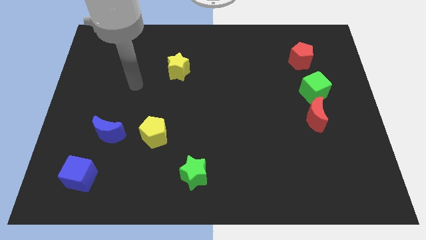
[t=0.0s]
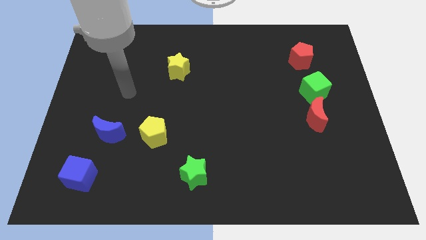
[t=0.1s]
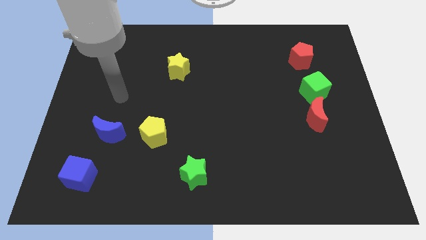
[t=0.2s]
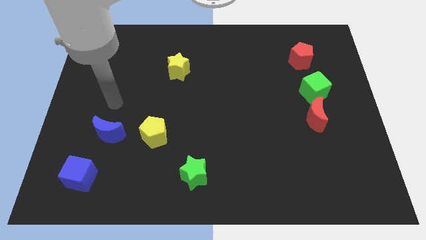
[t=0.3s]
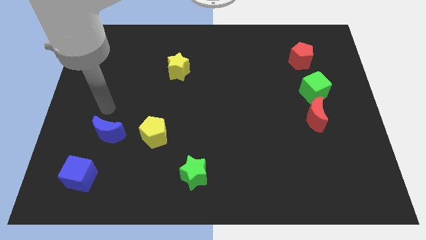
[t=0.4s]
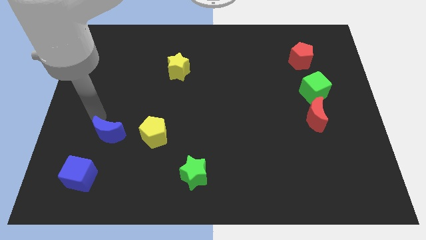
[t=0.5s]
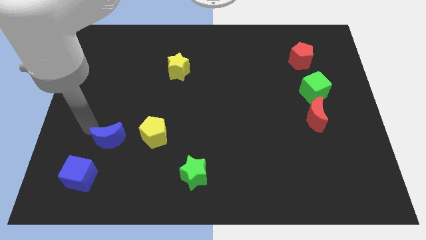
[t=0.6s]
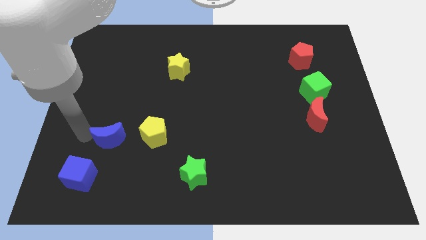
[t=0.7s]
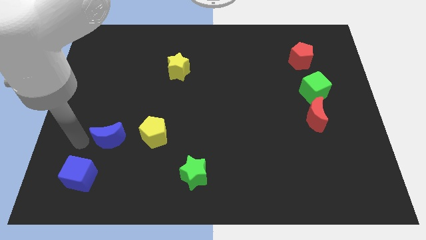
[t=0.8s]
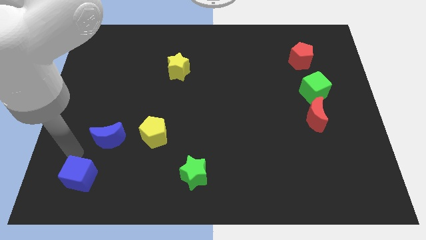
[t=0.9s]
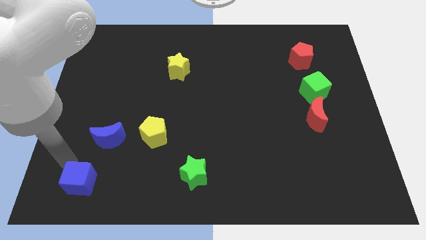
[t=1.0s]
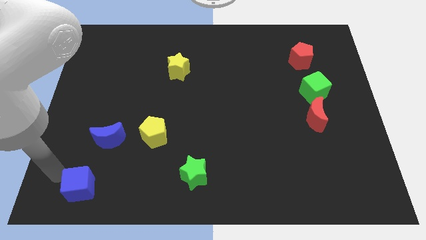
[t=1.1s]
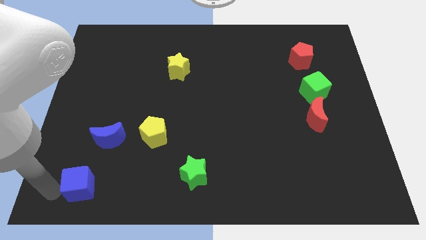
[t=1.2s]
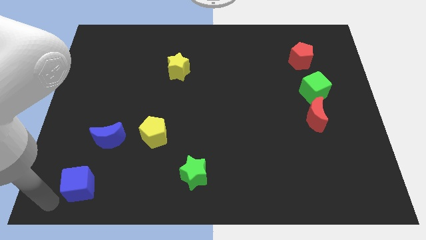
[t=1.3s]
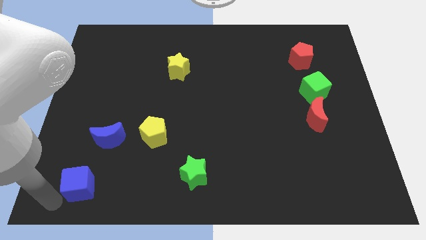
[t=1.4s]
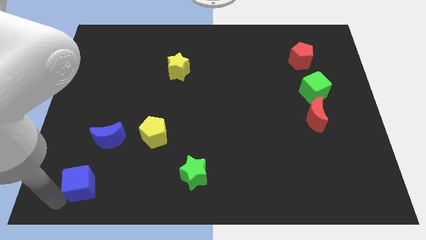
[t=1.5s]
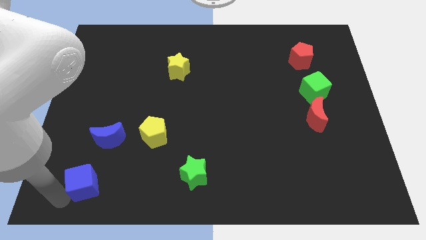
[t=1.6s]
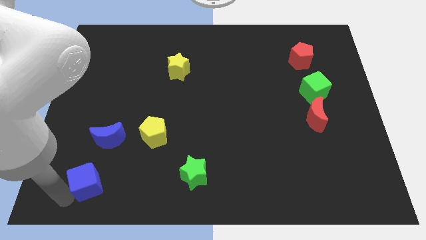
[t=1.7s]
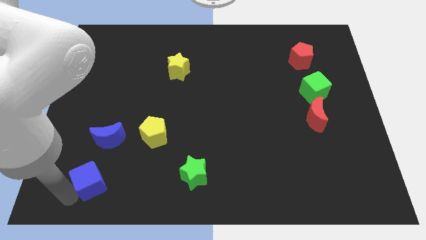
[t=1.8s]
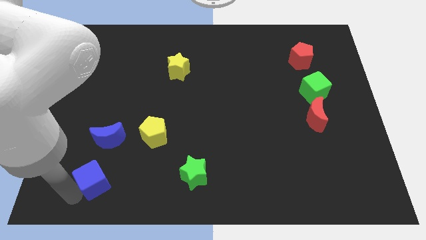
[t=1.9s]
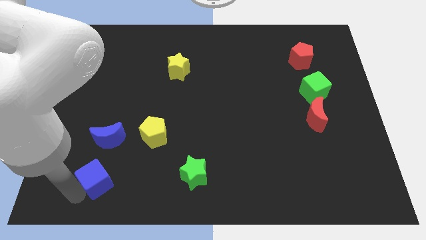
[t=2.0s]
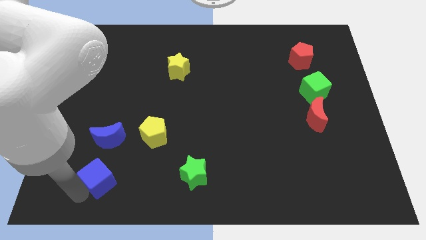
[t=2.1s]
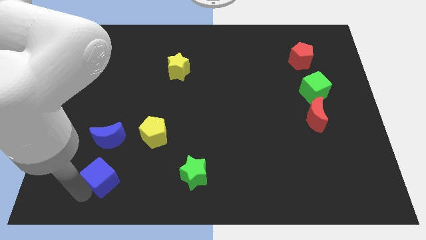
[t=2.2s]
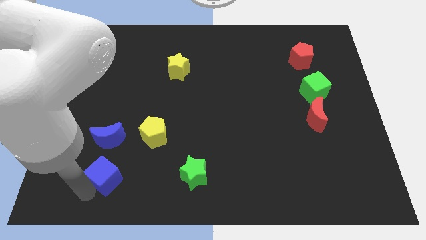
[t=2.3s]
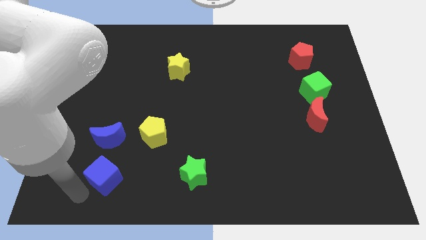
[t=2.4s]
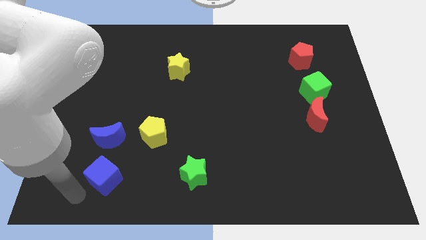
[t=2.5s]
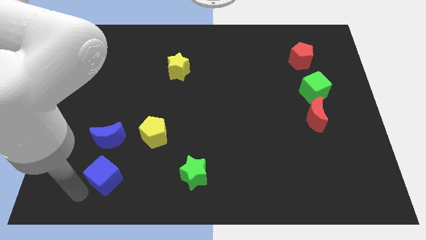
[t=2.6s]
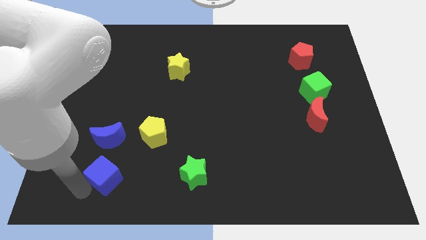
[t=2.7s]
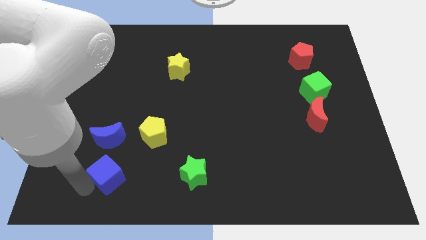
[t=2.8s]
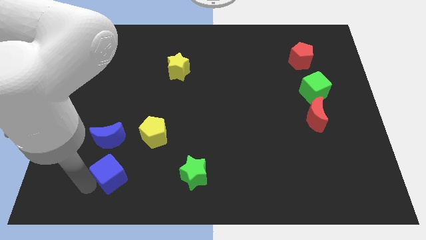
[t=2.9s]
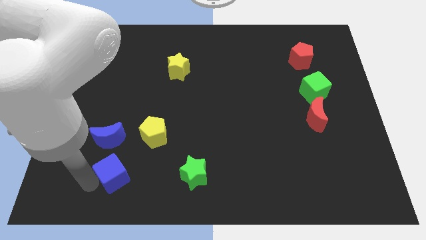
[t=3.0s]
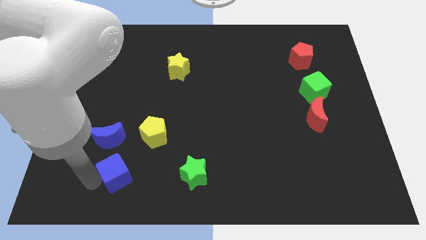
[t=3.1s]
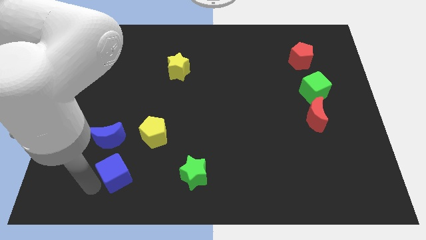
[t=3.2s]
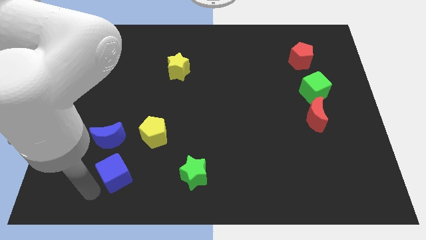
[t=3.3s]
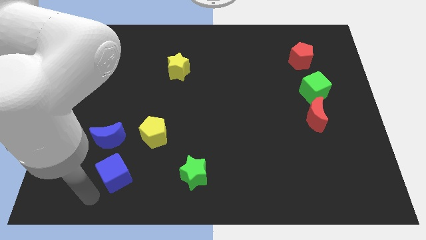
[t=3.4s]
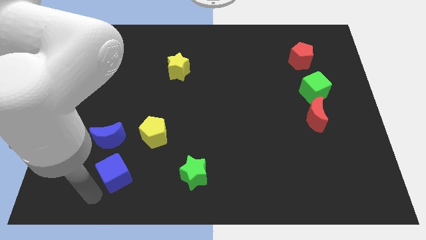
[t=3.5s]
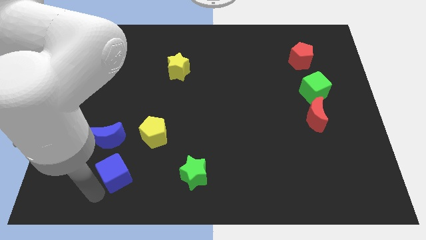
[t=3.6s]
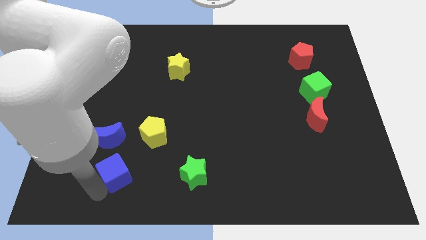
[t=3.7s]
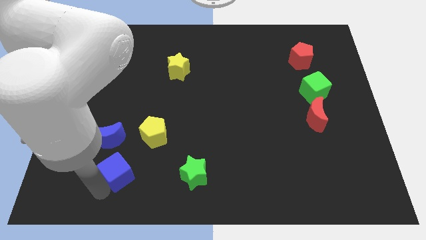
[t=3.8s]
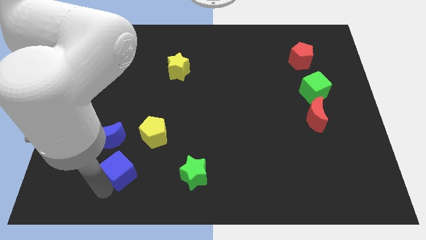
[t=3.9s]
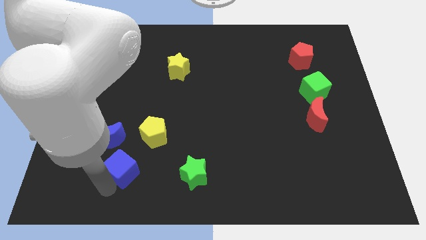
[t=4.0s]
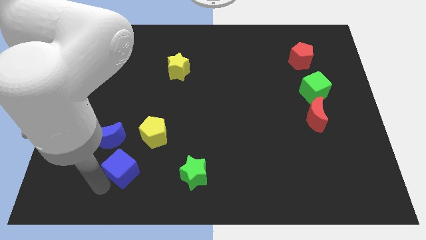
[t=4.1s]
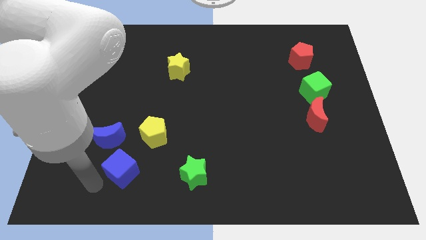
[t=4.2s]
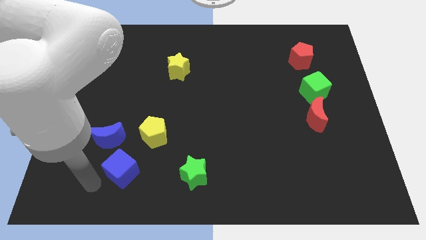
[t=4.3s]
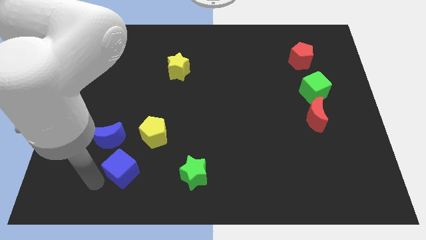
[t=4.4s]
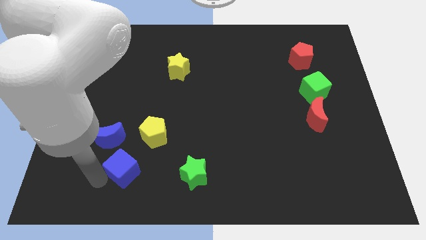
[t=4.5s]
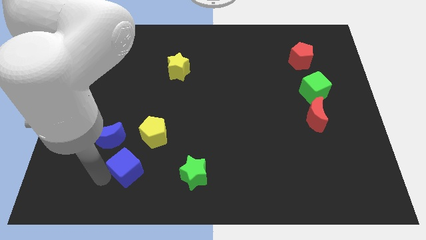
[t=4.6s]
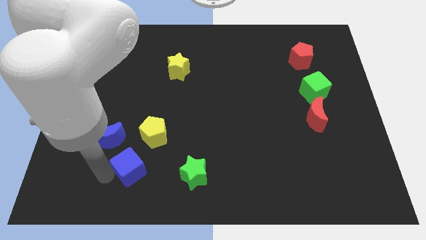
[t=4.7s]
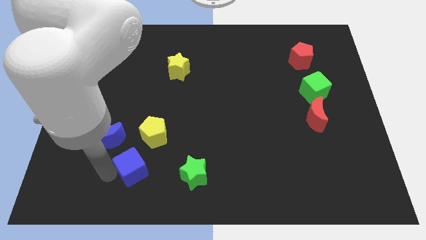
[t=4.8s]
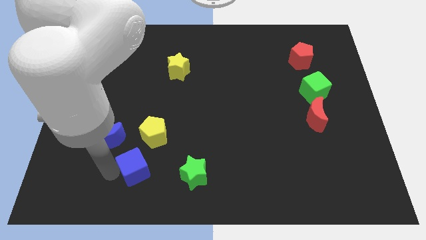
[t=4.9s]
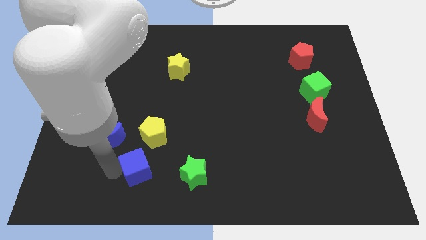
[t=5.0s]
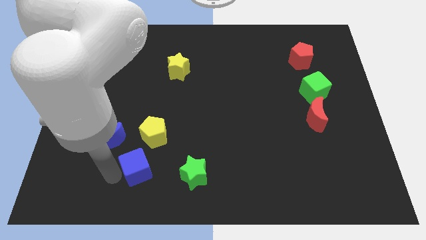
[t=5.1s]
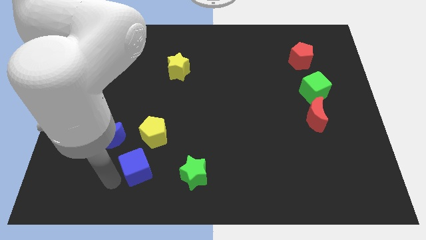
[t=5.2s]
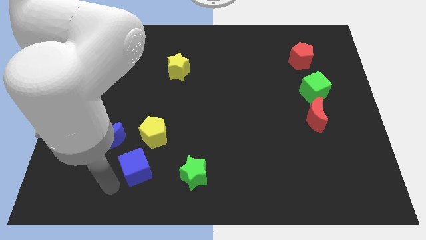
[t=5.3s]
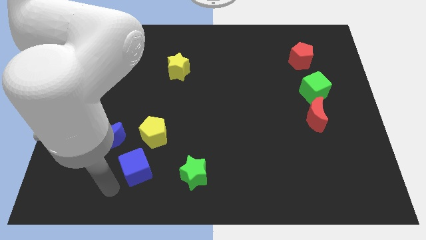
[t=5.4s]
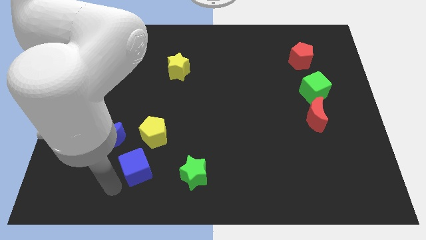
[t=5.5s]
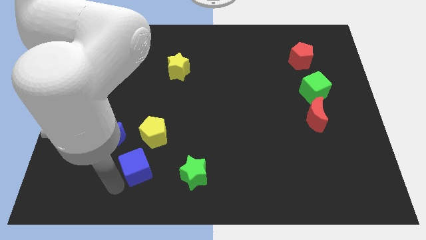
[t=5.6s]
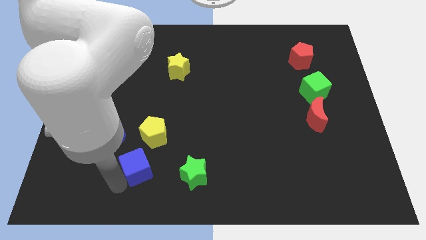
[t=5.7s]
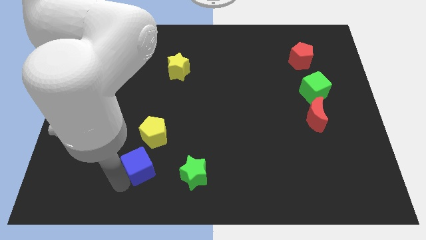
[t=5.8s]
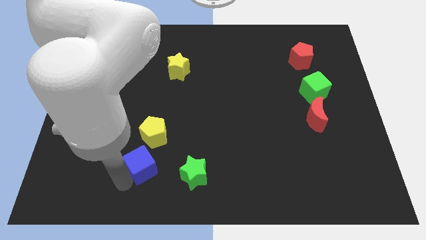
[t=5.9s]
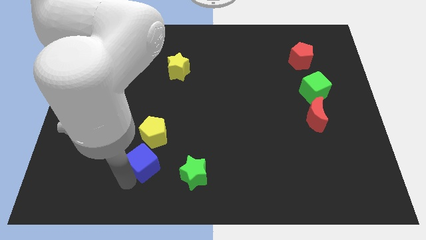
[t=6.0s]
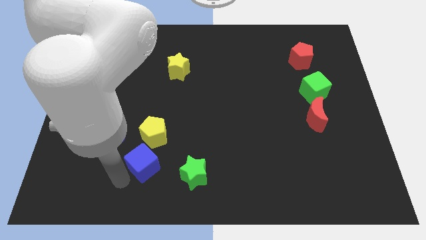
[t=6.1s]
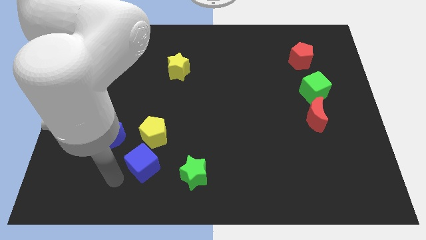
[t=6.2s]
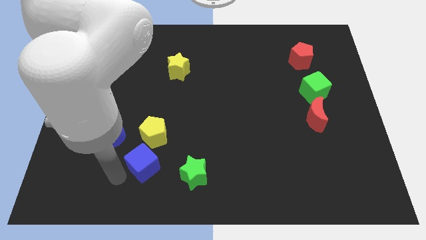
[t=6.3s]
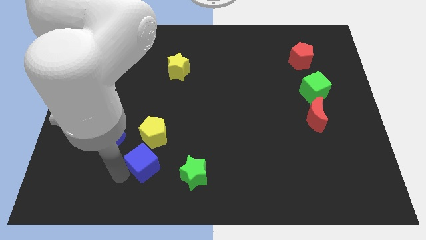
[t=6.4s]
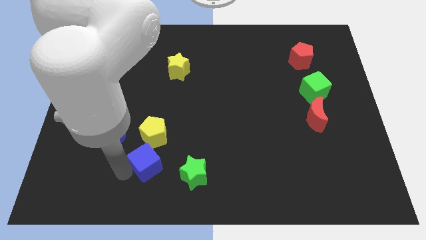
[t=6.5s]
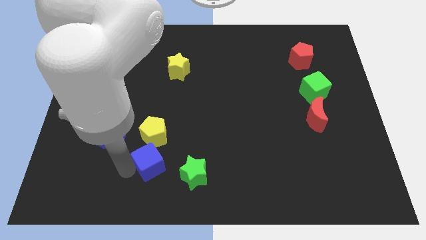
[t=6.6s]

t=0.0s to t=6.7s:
put the blue cube to the top left of the green star
